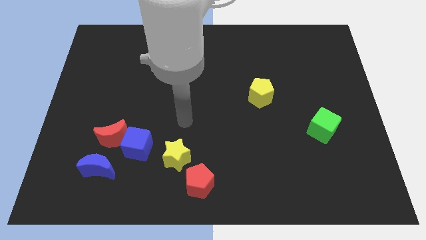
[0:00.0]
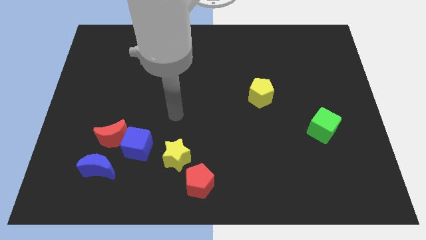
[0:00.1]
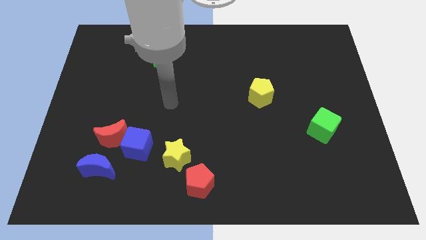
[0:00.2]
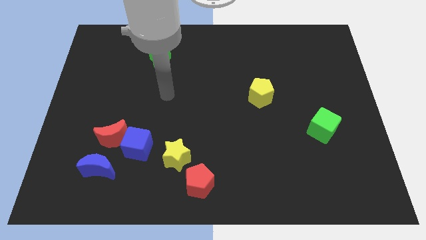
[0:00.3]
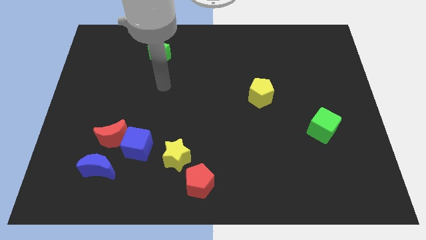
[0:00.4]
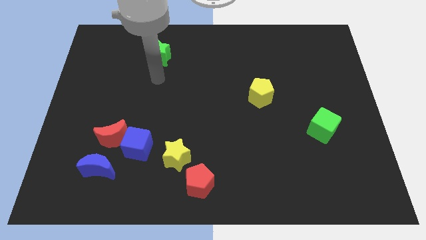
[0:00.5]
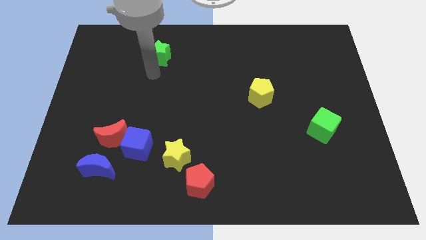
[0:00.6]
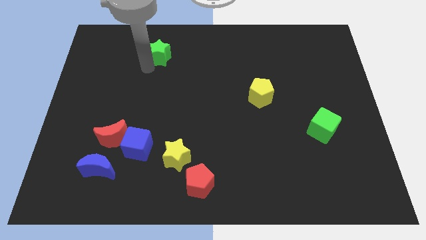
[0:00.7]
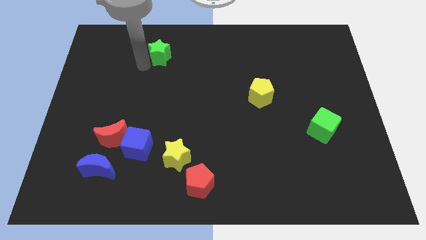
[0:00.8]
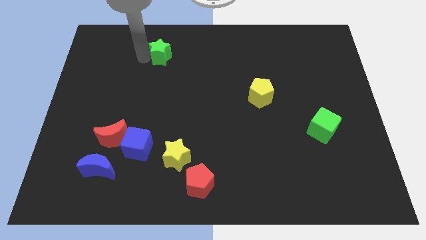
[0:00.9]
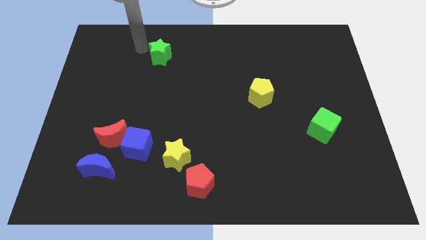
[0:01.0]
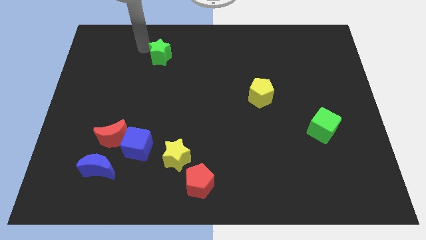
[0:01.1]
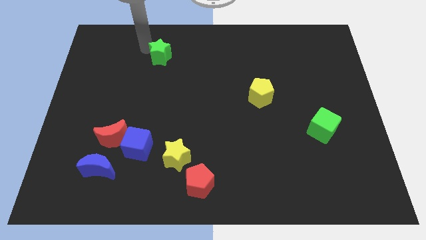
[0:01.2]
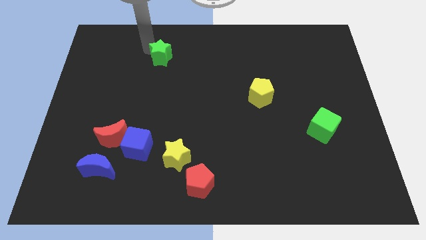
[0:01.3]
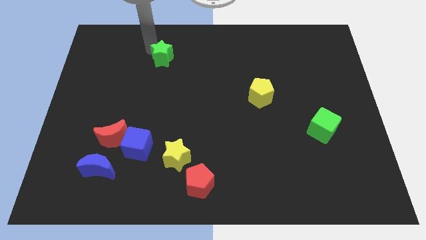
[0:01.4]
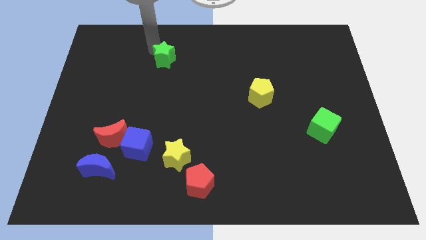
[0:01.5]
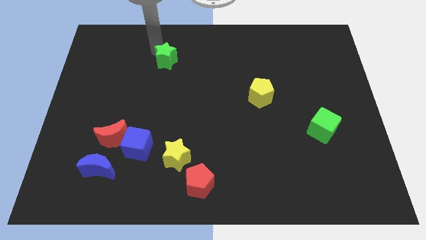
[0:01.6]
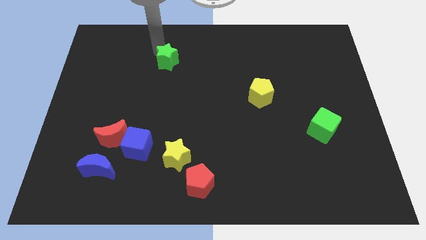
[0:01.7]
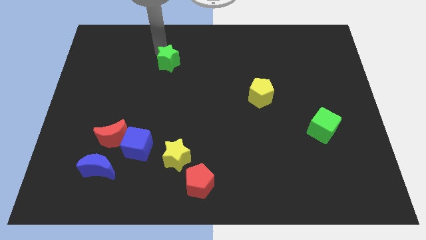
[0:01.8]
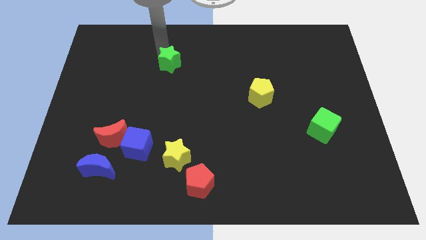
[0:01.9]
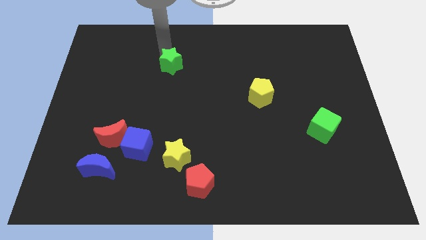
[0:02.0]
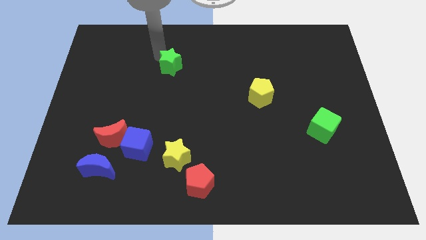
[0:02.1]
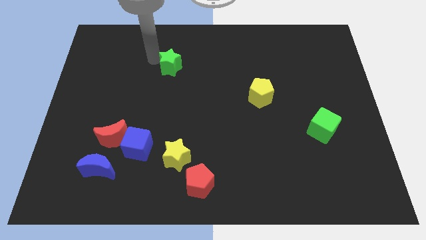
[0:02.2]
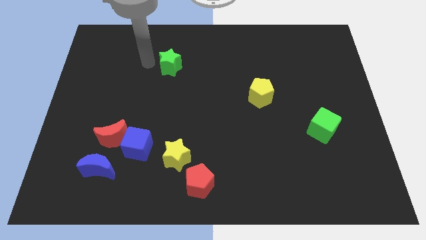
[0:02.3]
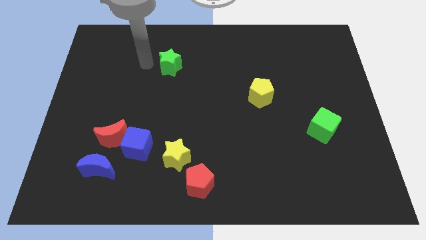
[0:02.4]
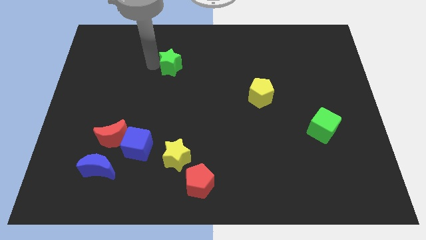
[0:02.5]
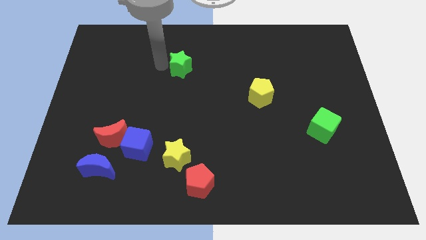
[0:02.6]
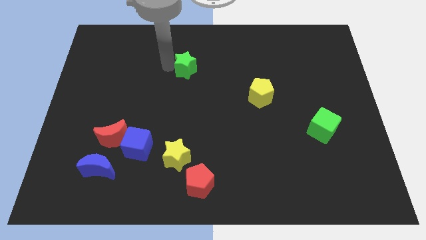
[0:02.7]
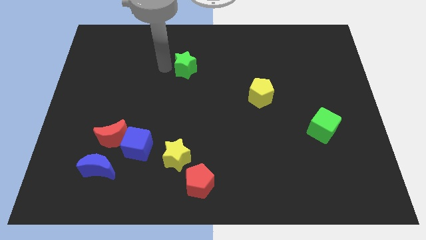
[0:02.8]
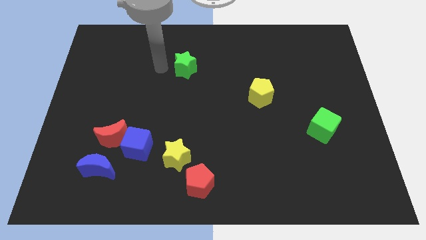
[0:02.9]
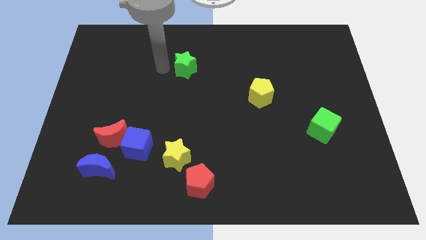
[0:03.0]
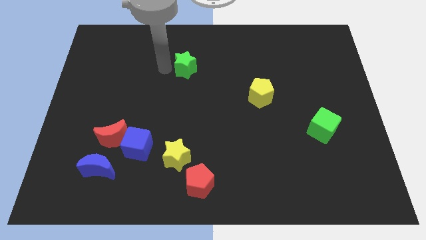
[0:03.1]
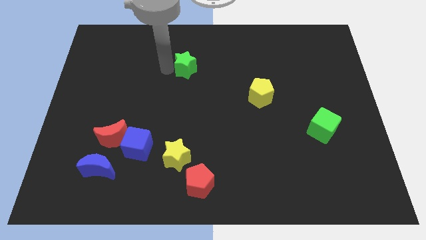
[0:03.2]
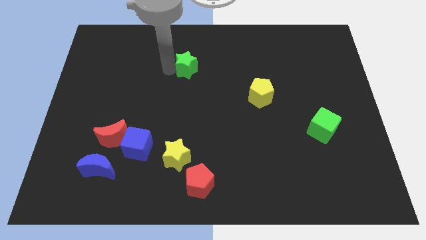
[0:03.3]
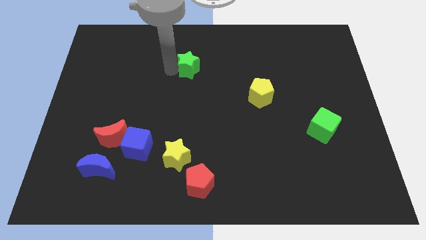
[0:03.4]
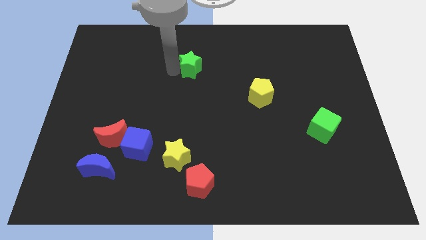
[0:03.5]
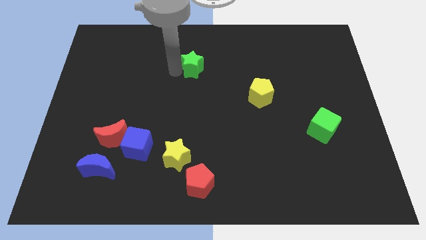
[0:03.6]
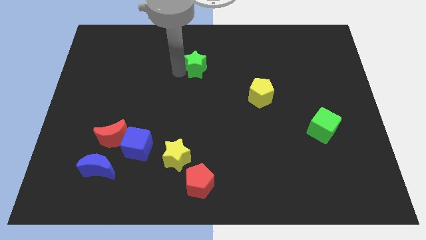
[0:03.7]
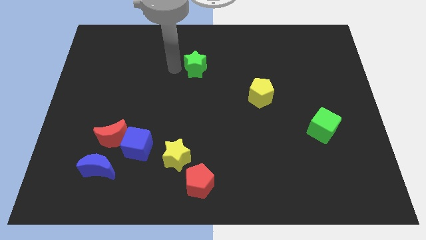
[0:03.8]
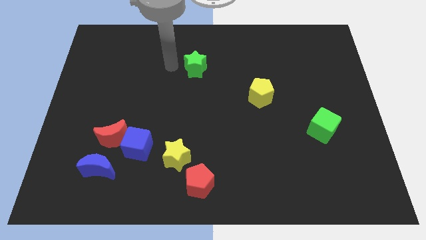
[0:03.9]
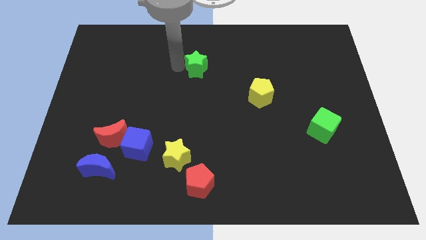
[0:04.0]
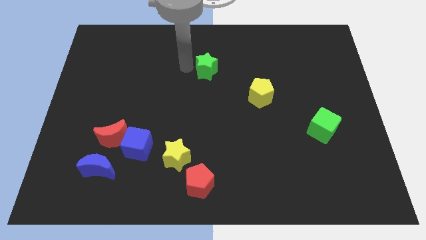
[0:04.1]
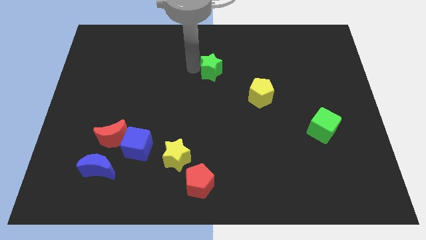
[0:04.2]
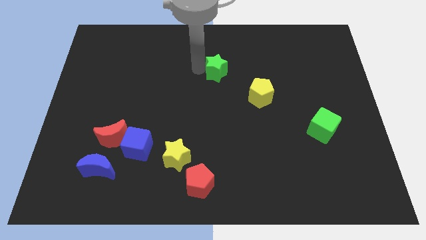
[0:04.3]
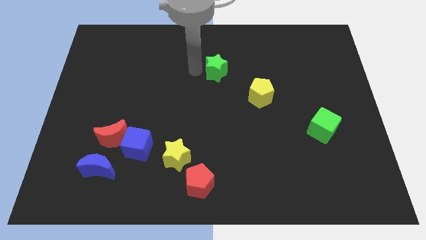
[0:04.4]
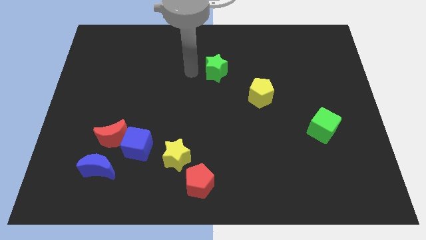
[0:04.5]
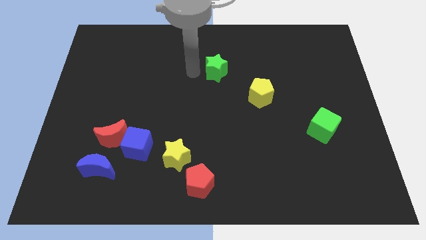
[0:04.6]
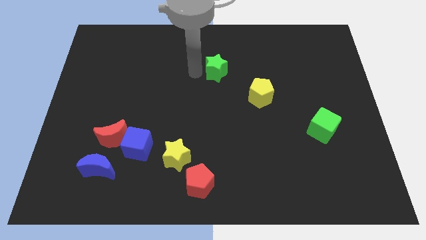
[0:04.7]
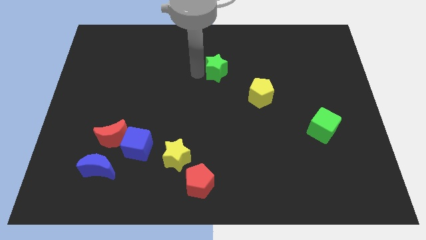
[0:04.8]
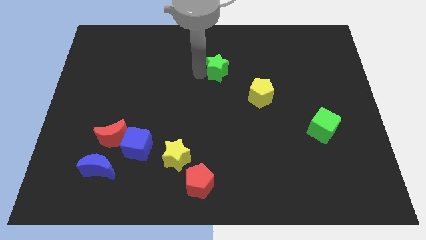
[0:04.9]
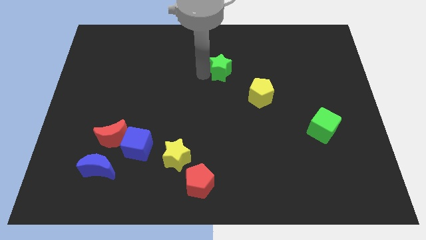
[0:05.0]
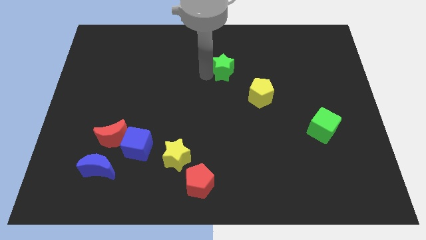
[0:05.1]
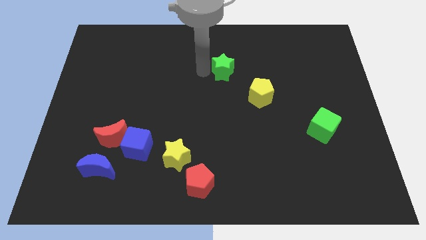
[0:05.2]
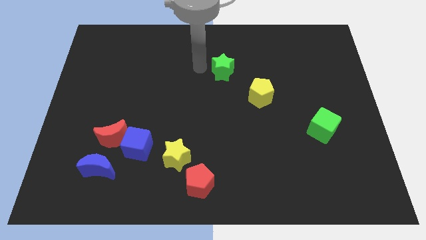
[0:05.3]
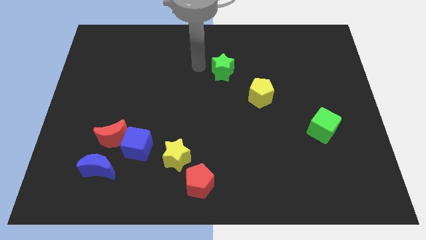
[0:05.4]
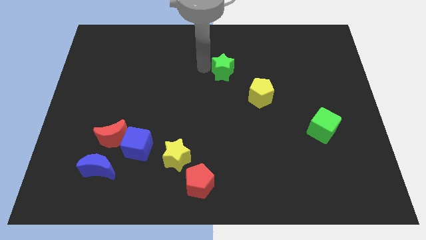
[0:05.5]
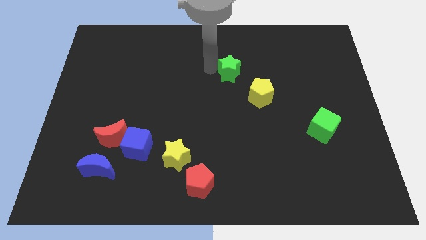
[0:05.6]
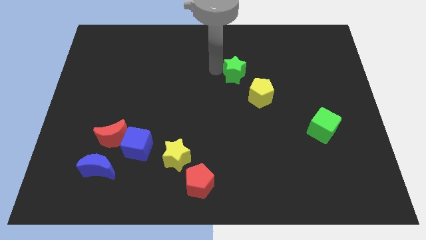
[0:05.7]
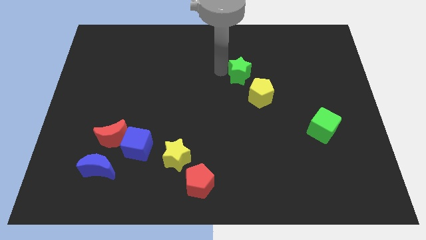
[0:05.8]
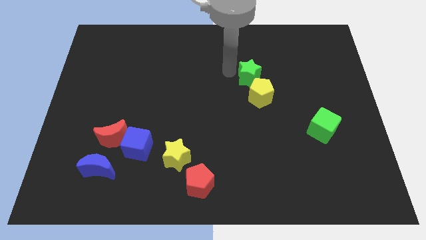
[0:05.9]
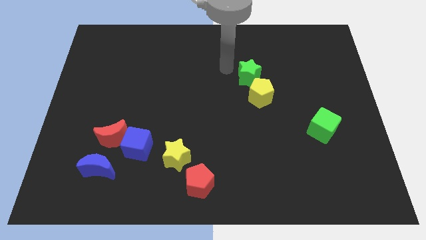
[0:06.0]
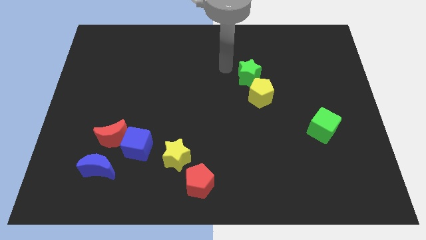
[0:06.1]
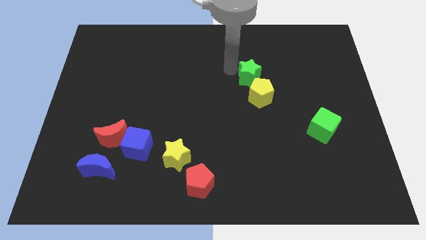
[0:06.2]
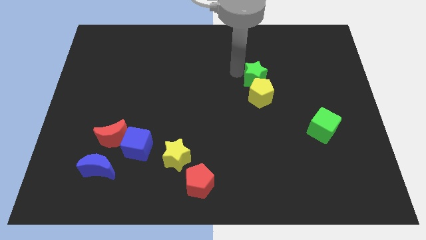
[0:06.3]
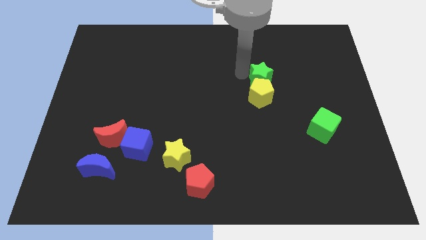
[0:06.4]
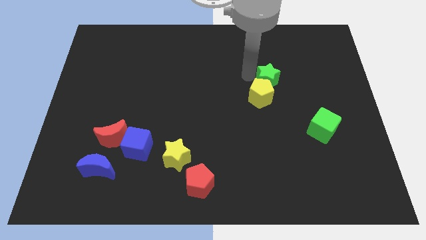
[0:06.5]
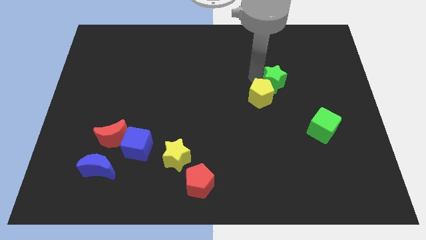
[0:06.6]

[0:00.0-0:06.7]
put the green star just right of the yellow pentagon

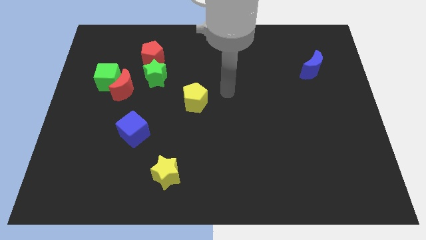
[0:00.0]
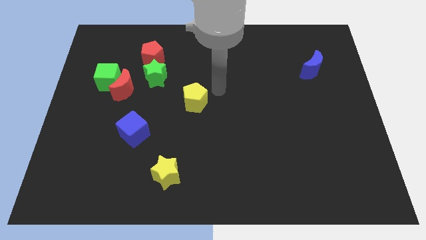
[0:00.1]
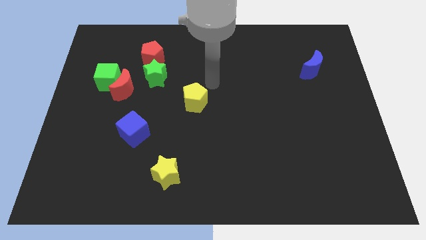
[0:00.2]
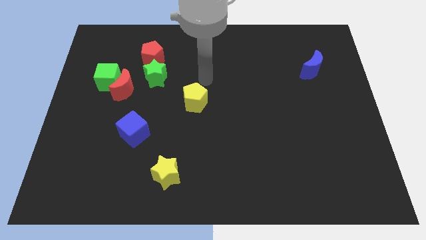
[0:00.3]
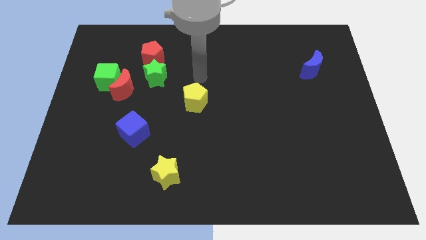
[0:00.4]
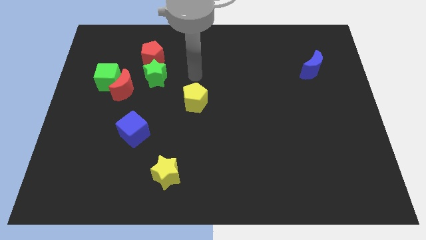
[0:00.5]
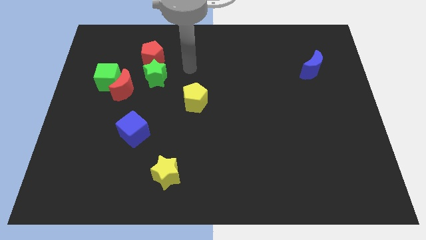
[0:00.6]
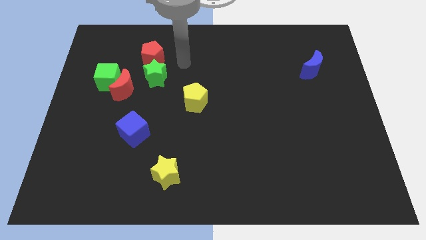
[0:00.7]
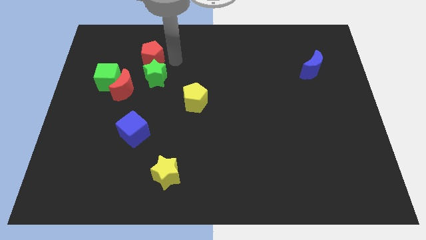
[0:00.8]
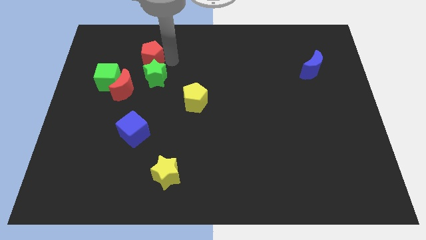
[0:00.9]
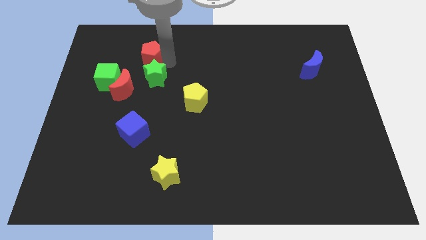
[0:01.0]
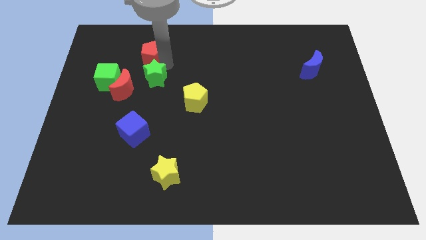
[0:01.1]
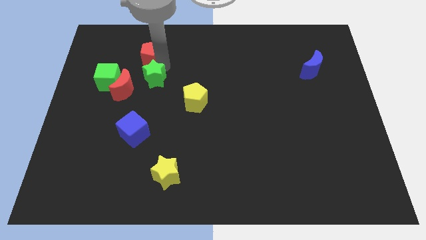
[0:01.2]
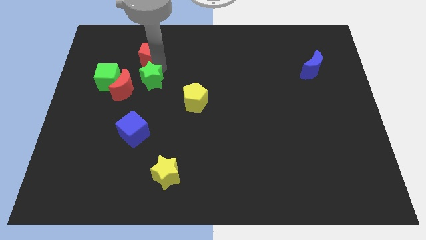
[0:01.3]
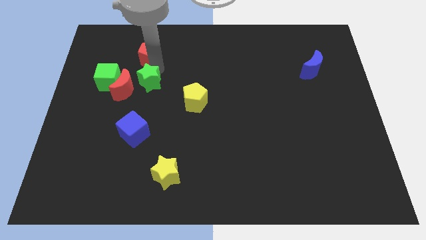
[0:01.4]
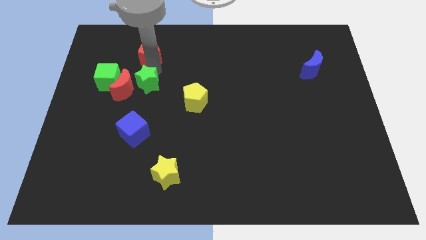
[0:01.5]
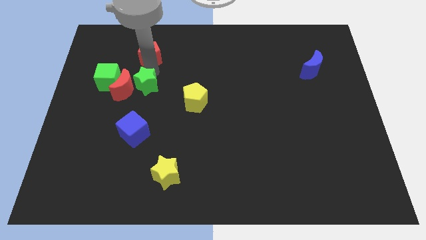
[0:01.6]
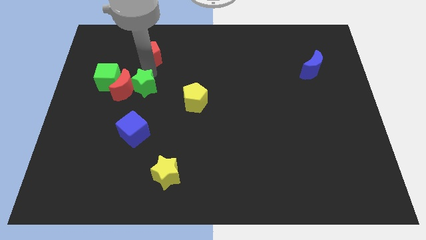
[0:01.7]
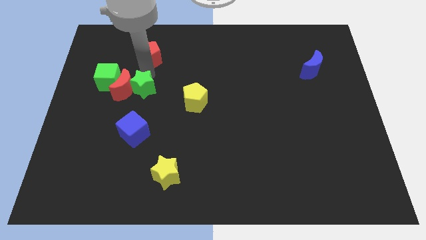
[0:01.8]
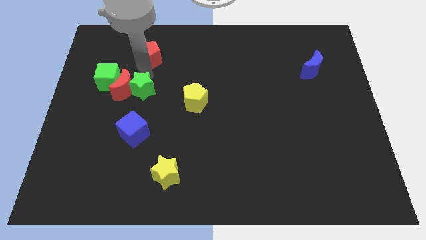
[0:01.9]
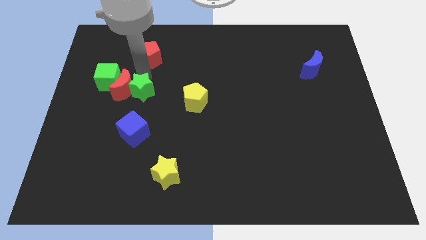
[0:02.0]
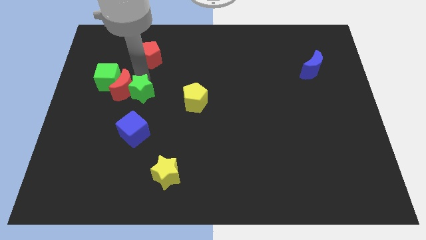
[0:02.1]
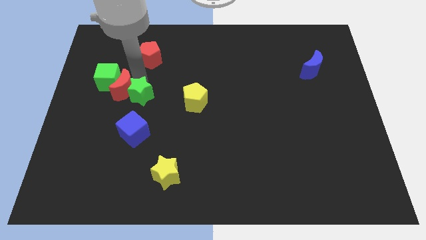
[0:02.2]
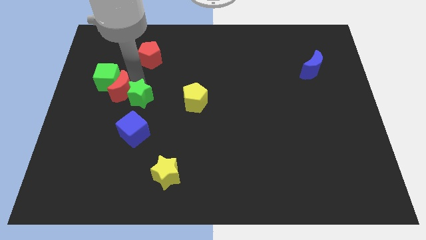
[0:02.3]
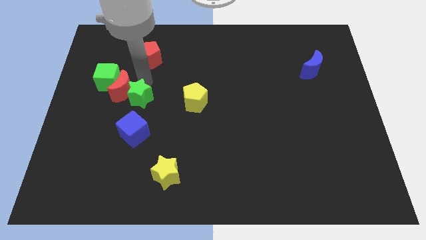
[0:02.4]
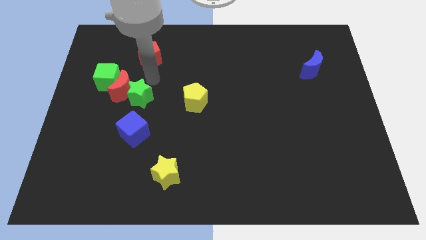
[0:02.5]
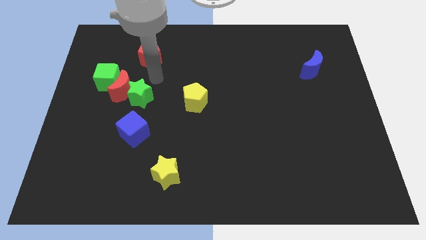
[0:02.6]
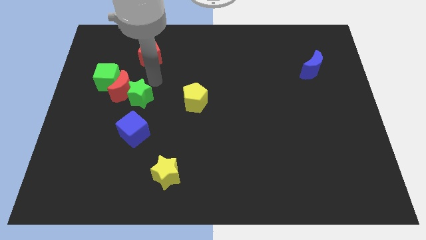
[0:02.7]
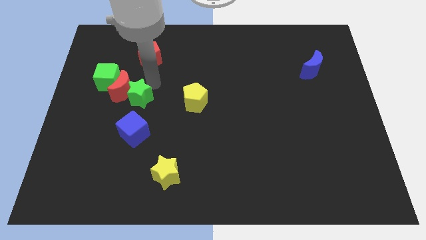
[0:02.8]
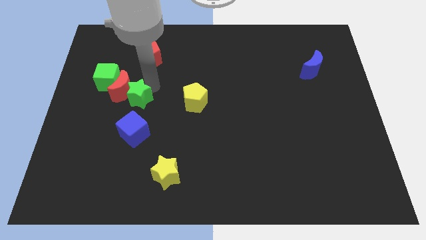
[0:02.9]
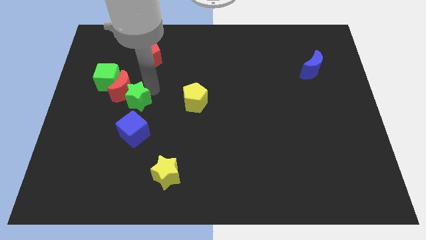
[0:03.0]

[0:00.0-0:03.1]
push the green star to the bottom side of the red moon
